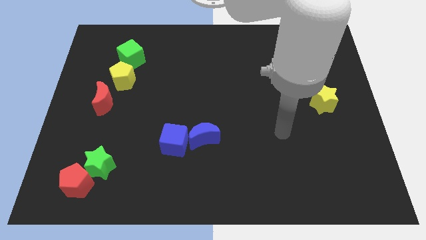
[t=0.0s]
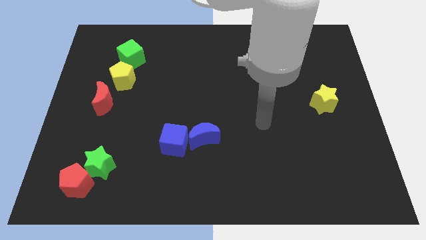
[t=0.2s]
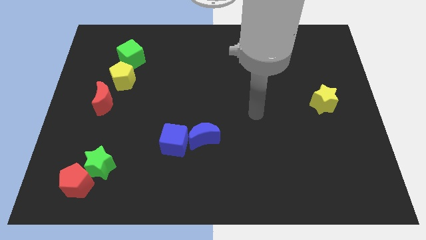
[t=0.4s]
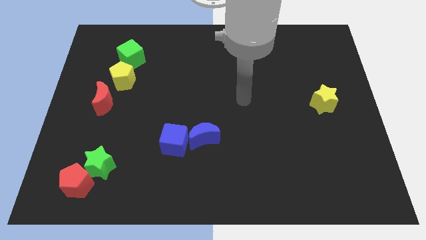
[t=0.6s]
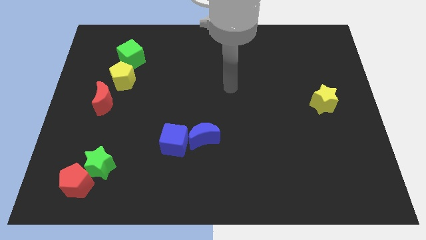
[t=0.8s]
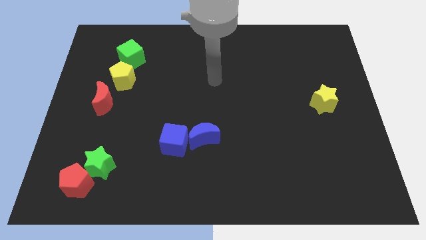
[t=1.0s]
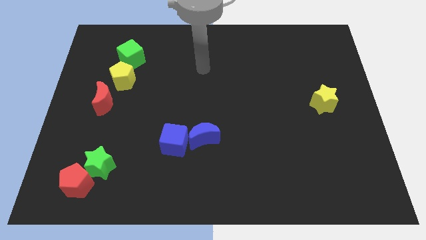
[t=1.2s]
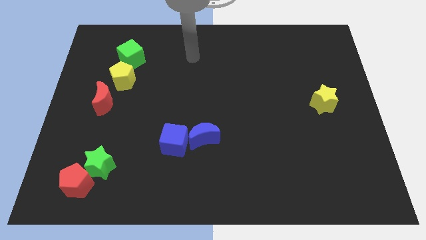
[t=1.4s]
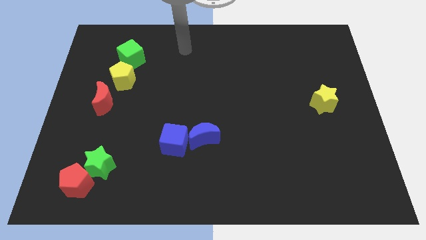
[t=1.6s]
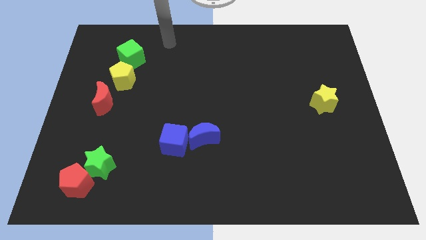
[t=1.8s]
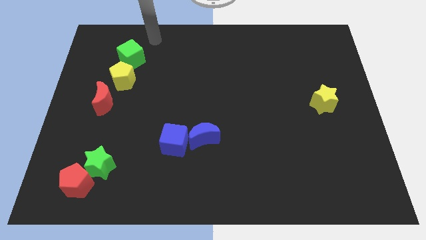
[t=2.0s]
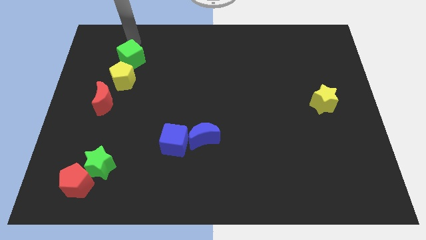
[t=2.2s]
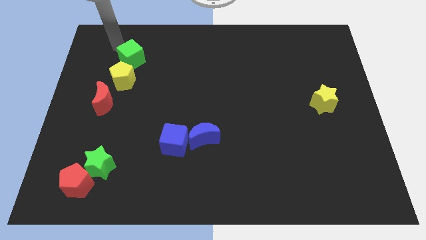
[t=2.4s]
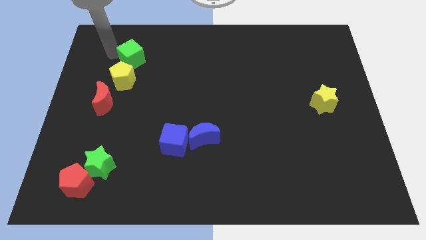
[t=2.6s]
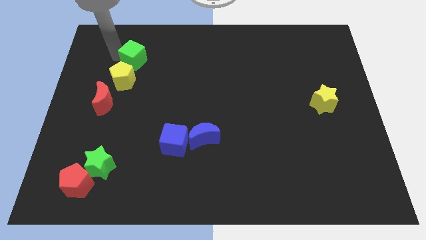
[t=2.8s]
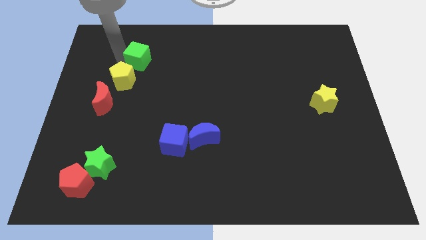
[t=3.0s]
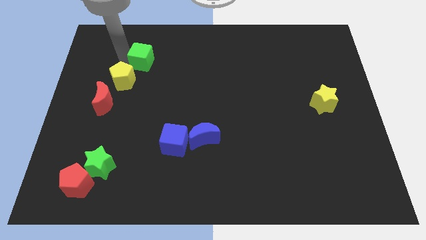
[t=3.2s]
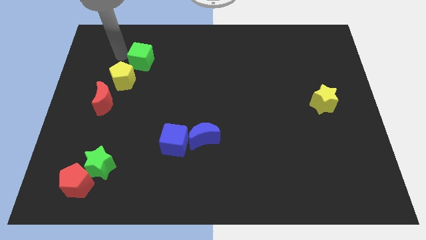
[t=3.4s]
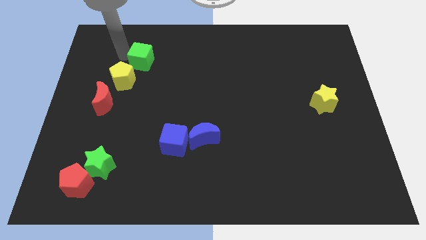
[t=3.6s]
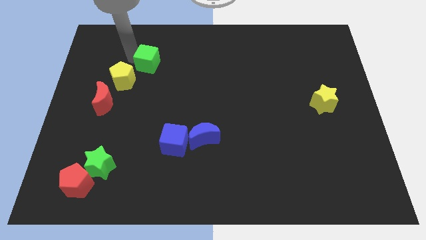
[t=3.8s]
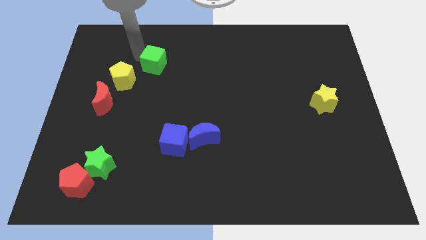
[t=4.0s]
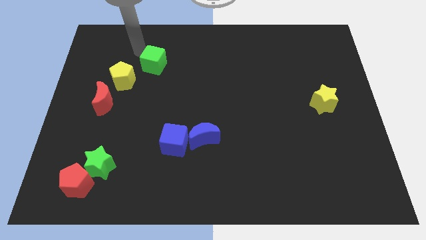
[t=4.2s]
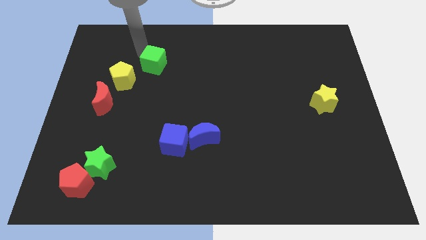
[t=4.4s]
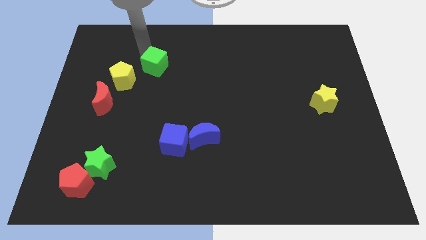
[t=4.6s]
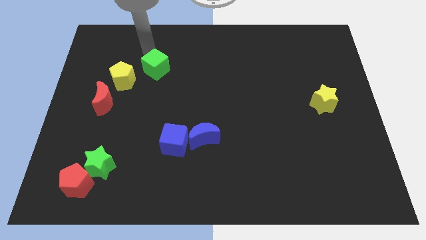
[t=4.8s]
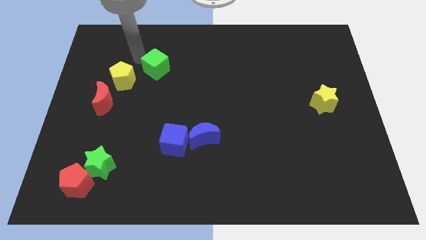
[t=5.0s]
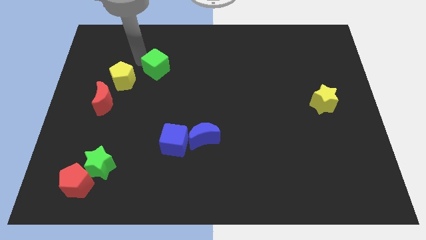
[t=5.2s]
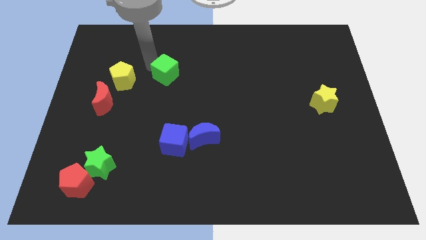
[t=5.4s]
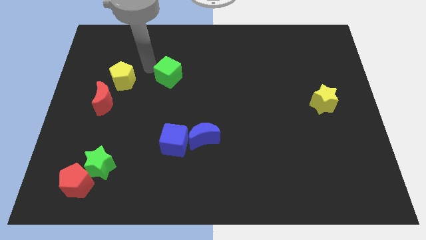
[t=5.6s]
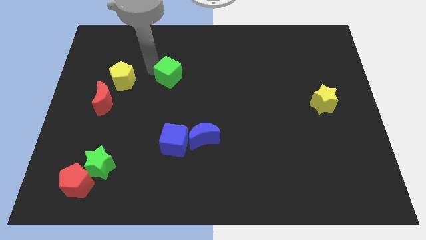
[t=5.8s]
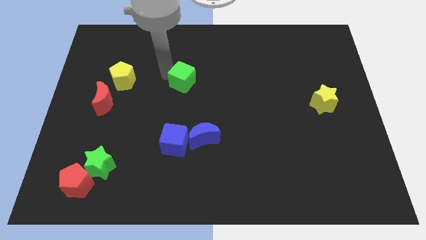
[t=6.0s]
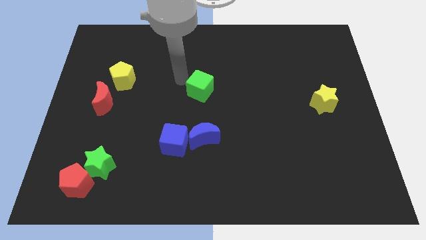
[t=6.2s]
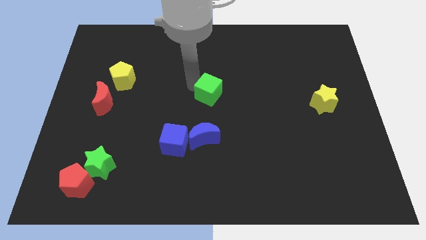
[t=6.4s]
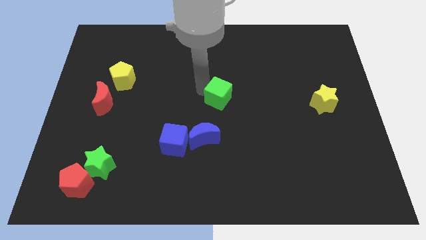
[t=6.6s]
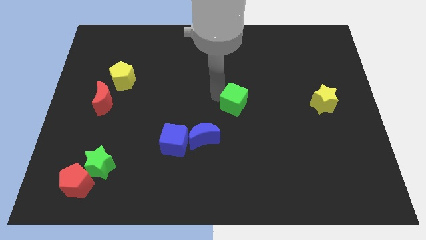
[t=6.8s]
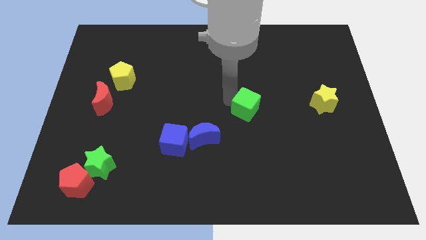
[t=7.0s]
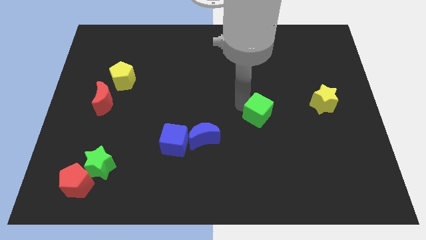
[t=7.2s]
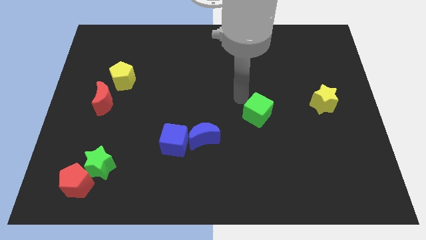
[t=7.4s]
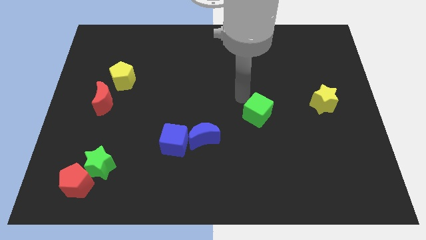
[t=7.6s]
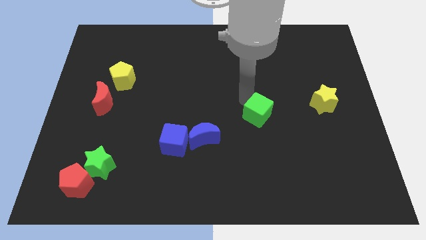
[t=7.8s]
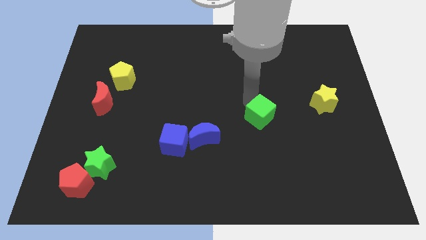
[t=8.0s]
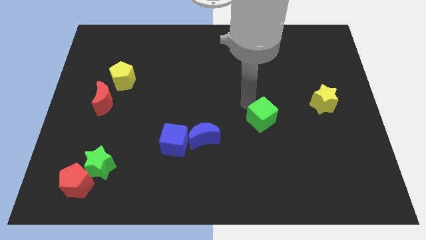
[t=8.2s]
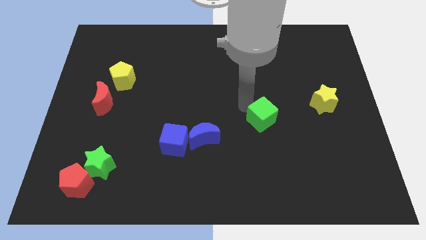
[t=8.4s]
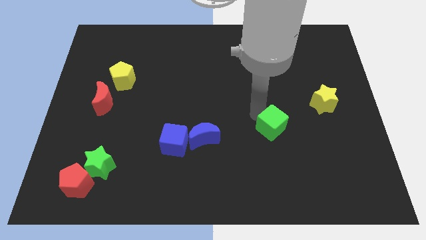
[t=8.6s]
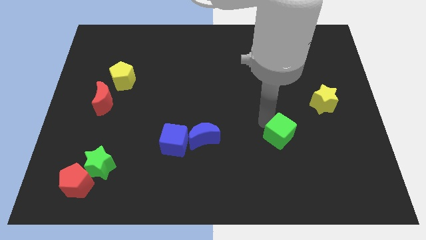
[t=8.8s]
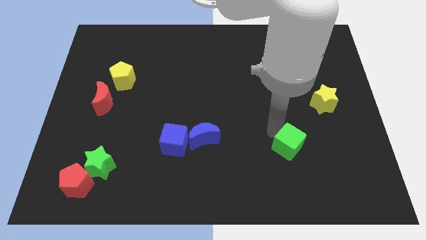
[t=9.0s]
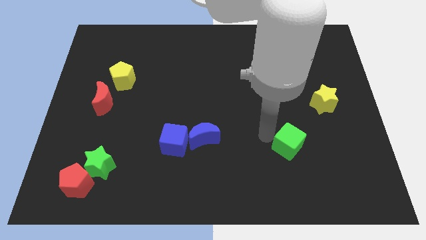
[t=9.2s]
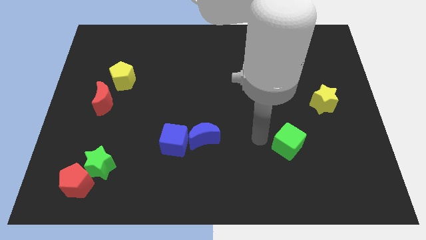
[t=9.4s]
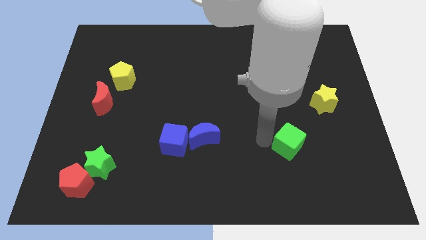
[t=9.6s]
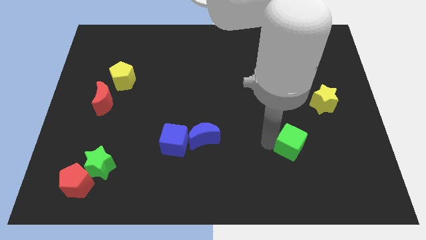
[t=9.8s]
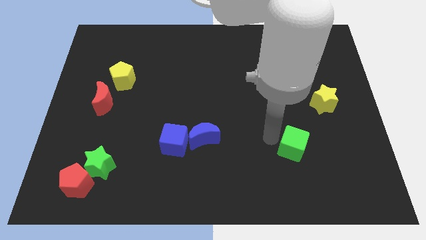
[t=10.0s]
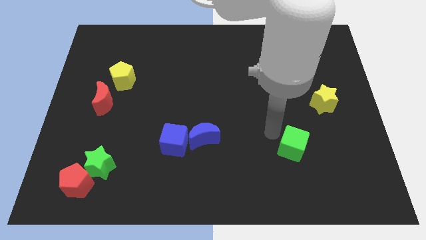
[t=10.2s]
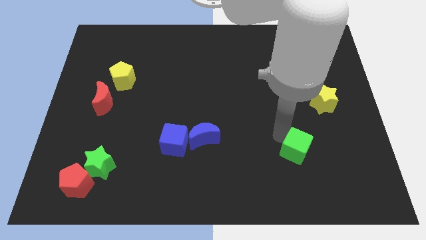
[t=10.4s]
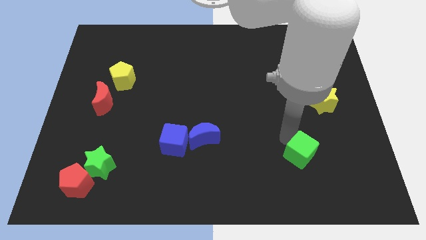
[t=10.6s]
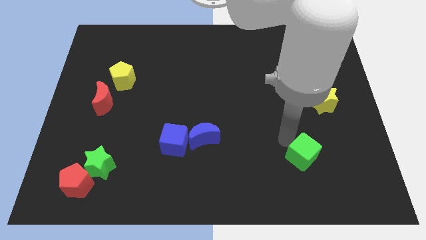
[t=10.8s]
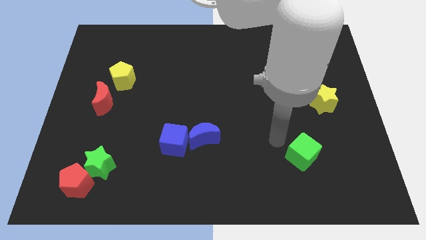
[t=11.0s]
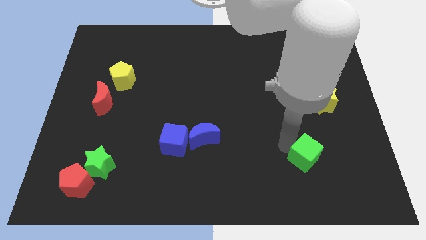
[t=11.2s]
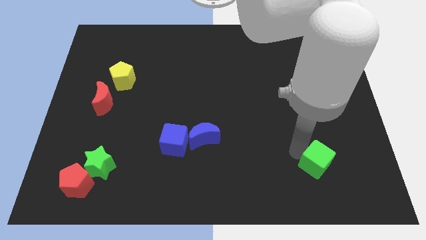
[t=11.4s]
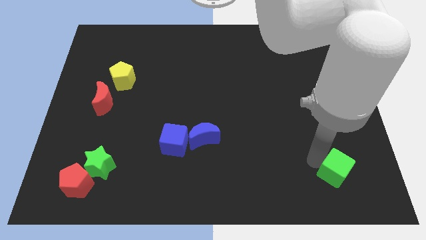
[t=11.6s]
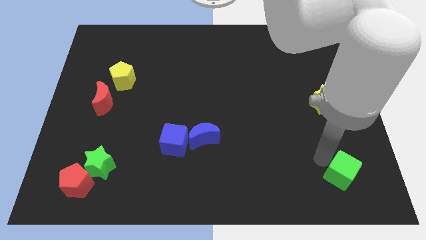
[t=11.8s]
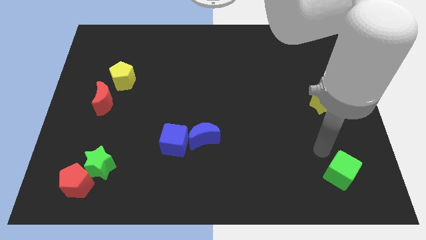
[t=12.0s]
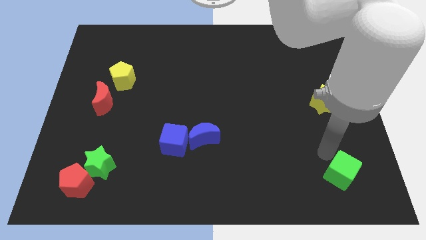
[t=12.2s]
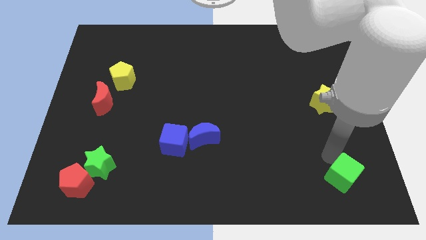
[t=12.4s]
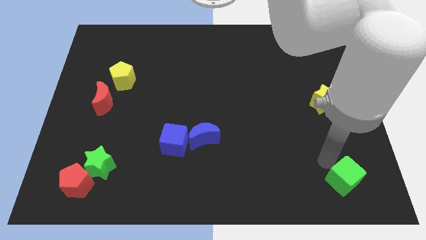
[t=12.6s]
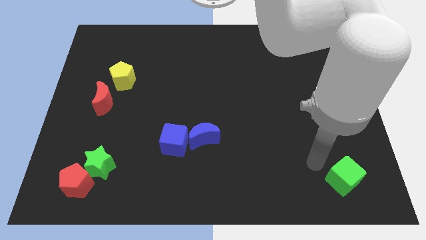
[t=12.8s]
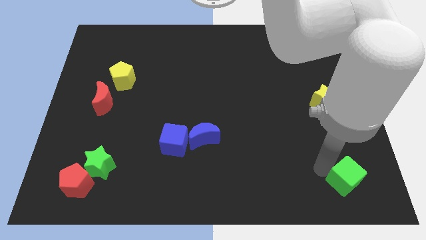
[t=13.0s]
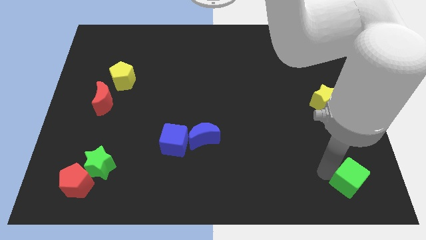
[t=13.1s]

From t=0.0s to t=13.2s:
slide the green cube to the bottom right corner

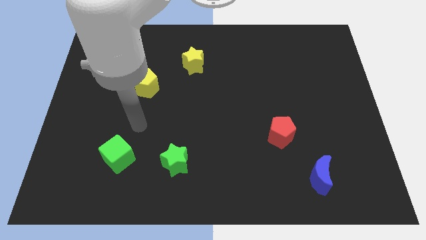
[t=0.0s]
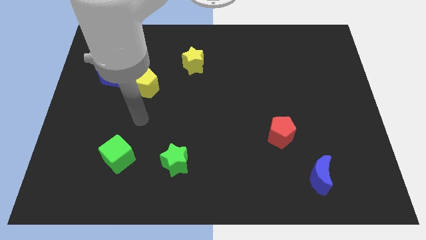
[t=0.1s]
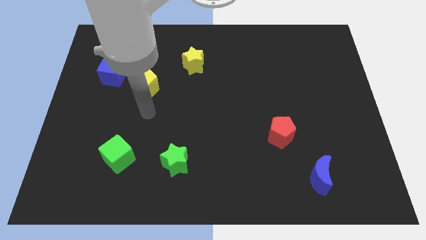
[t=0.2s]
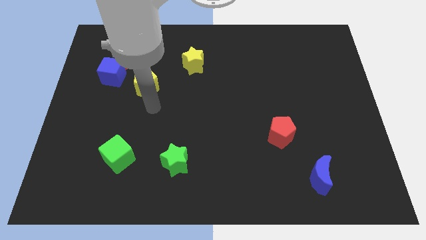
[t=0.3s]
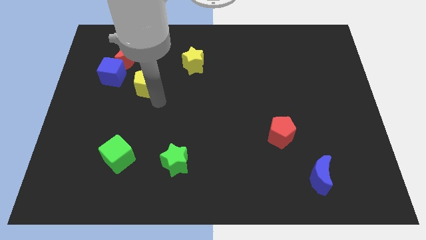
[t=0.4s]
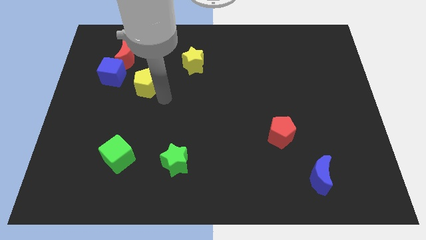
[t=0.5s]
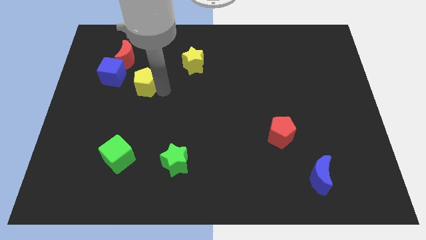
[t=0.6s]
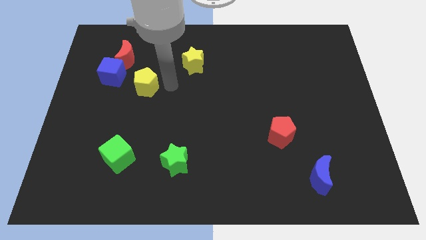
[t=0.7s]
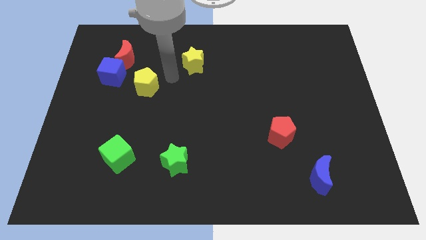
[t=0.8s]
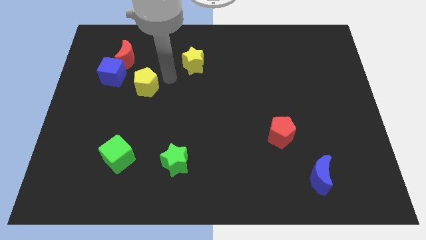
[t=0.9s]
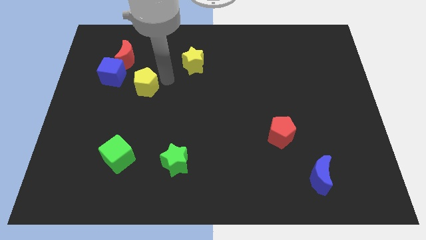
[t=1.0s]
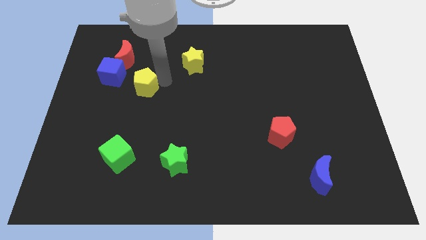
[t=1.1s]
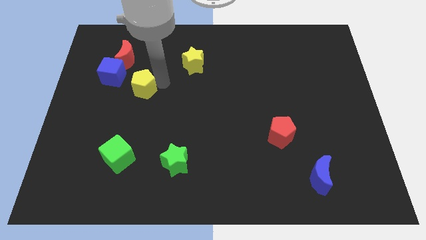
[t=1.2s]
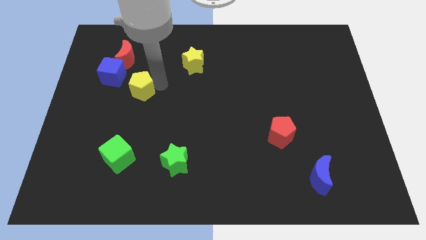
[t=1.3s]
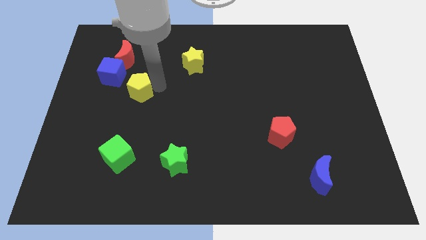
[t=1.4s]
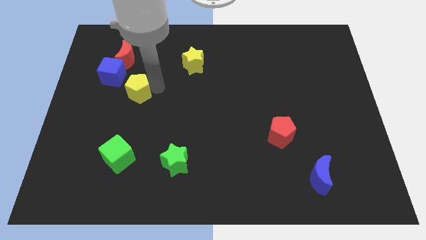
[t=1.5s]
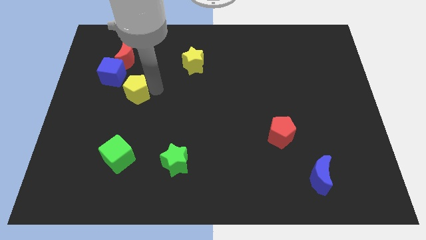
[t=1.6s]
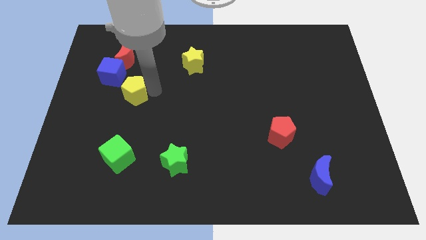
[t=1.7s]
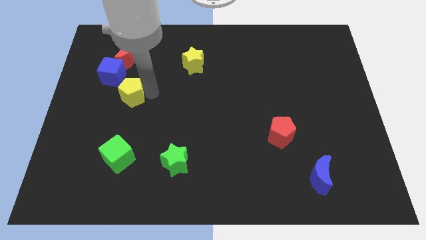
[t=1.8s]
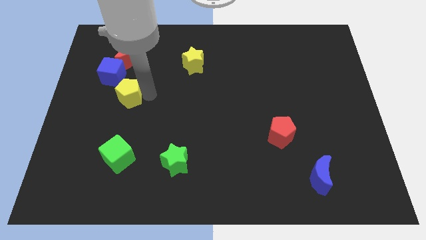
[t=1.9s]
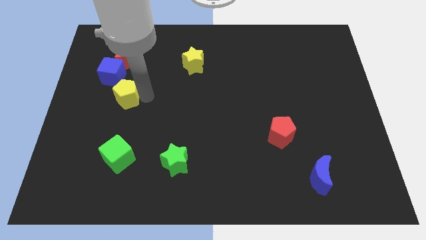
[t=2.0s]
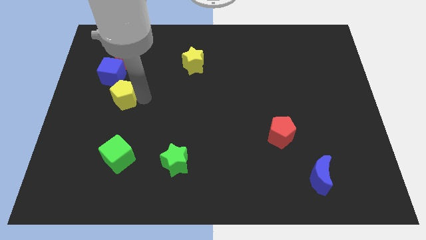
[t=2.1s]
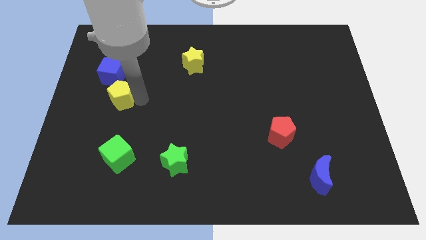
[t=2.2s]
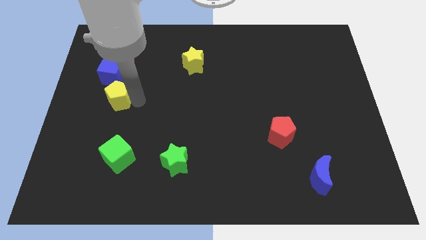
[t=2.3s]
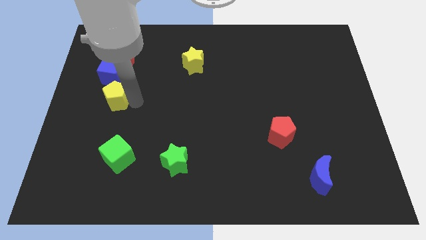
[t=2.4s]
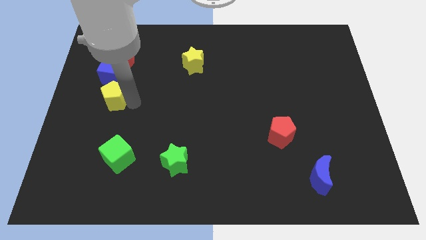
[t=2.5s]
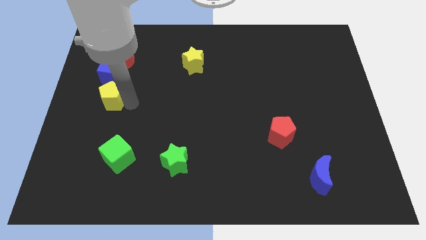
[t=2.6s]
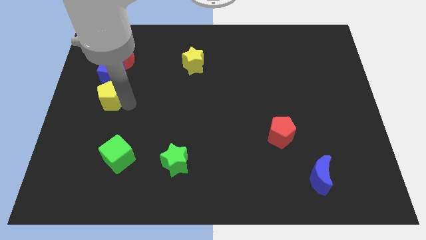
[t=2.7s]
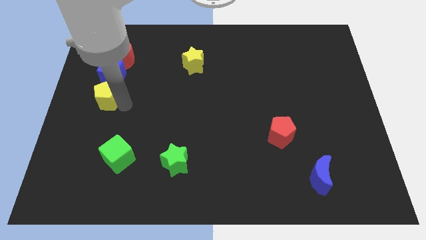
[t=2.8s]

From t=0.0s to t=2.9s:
push the yellow pentagon to the left side of the board
